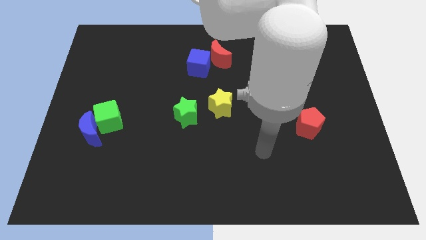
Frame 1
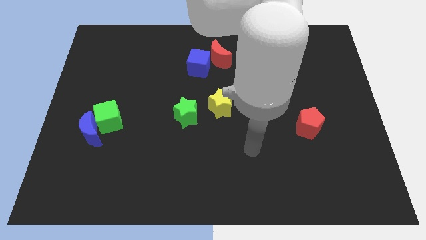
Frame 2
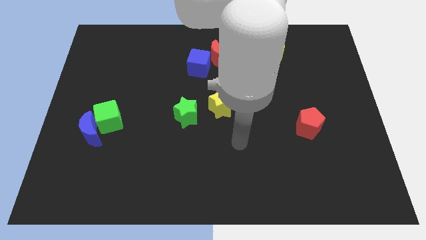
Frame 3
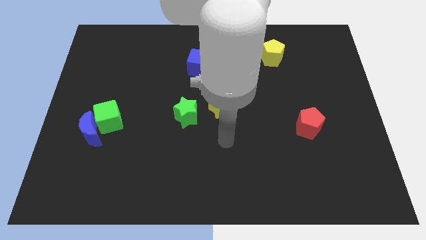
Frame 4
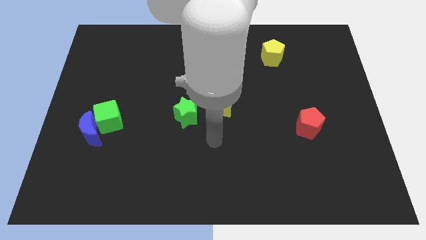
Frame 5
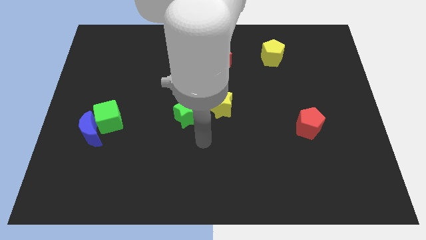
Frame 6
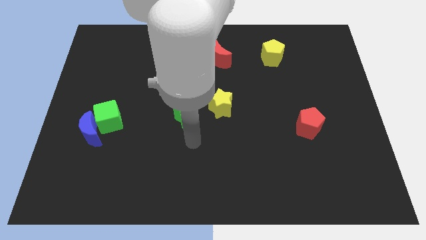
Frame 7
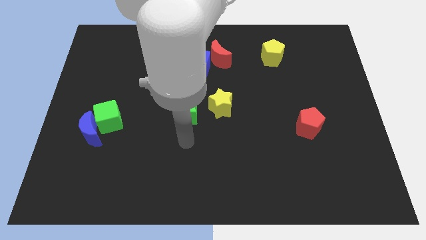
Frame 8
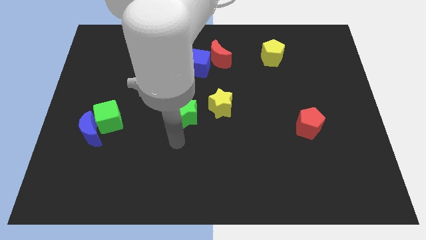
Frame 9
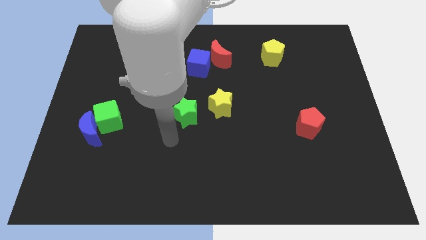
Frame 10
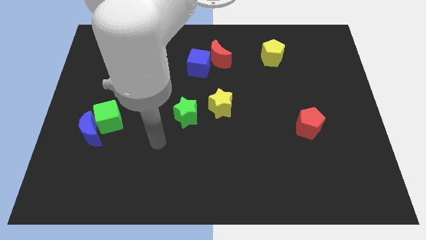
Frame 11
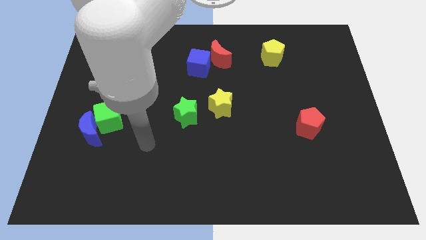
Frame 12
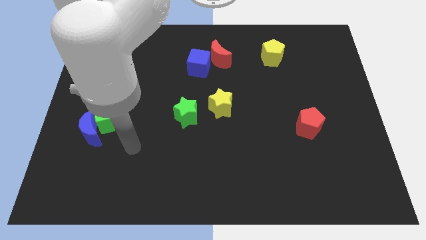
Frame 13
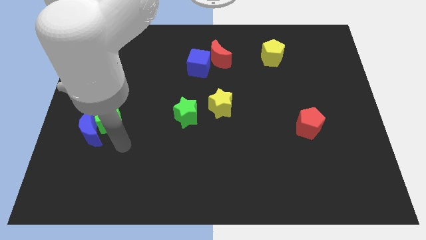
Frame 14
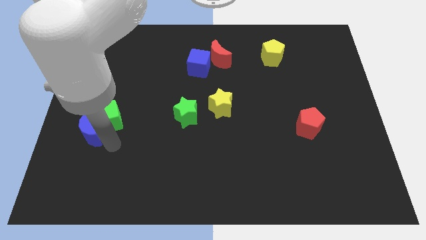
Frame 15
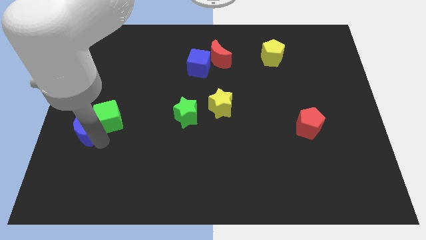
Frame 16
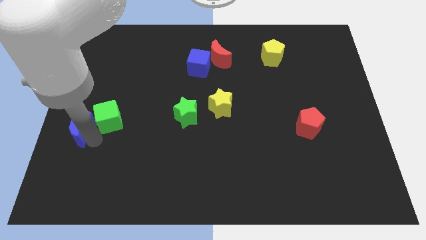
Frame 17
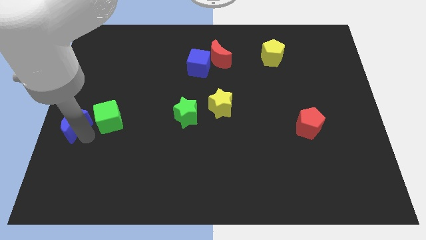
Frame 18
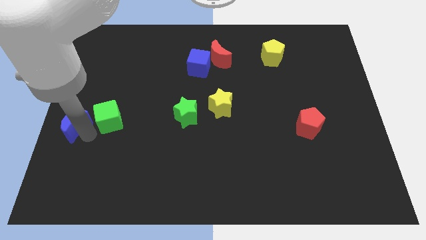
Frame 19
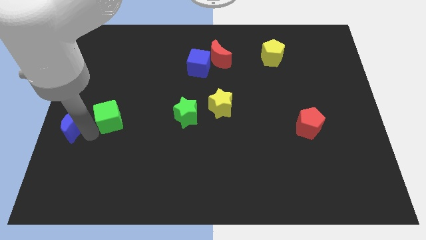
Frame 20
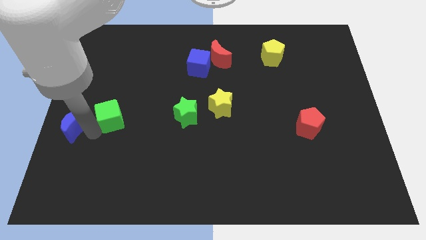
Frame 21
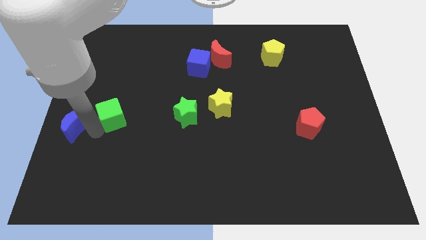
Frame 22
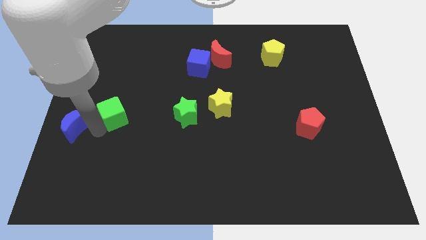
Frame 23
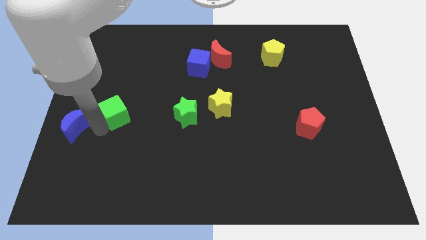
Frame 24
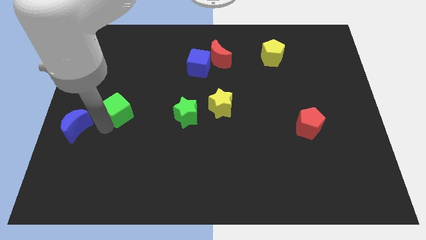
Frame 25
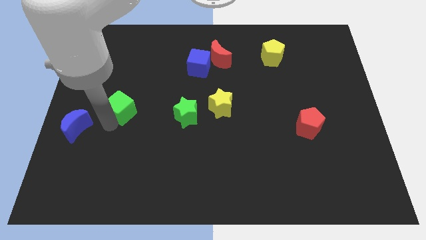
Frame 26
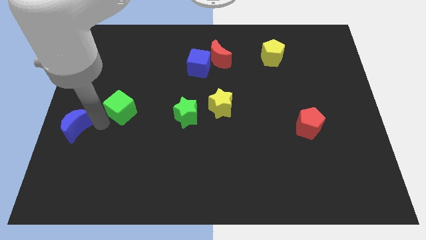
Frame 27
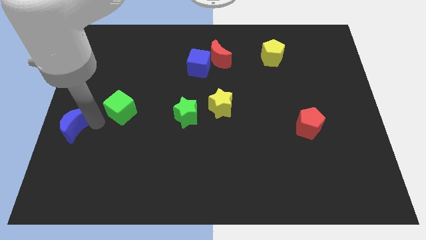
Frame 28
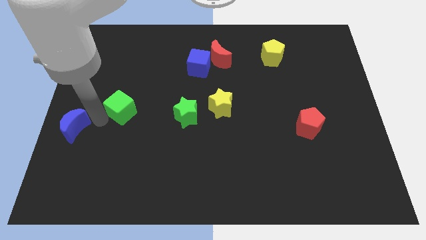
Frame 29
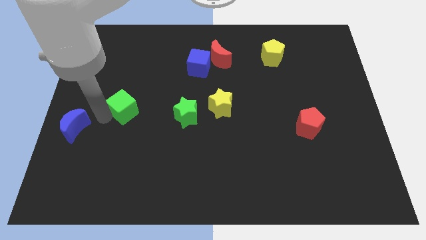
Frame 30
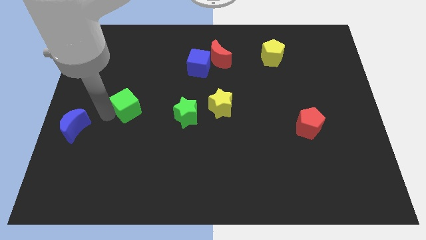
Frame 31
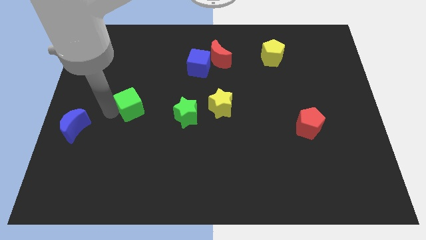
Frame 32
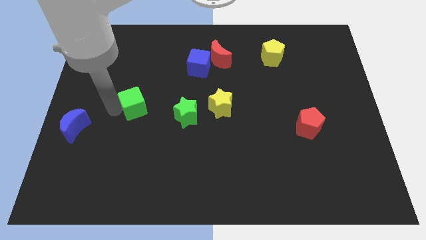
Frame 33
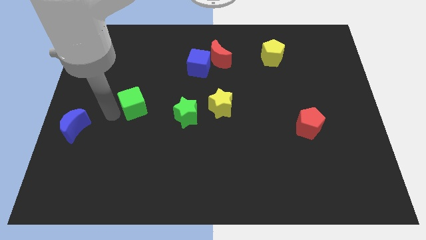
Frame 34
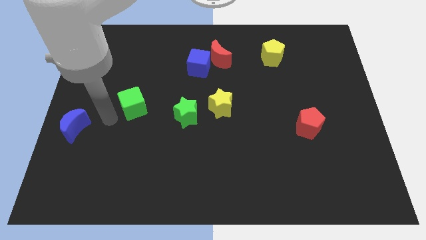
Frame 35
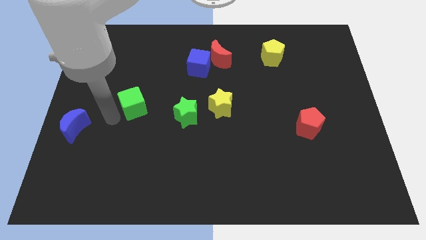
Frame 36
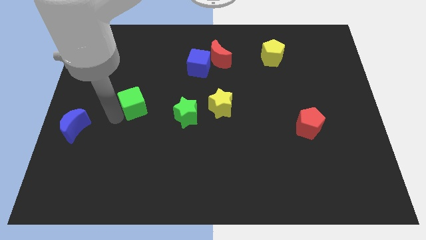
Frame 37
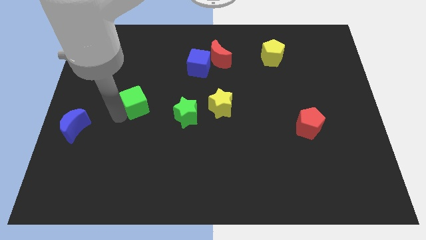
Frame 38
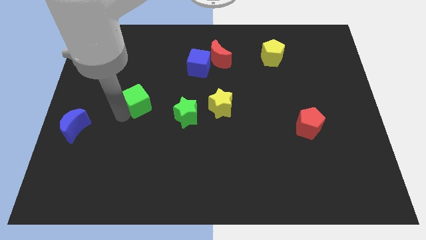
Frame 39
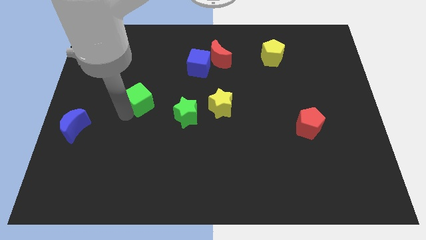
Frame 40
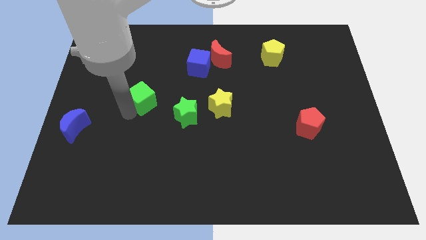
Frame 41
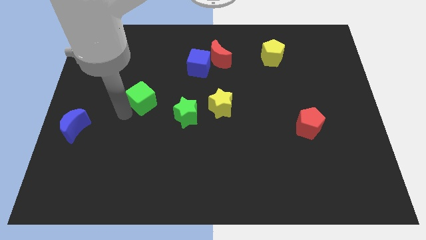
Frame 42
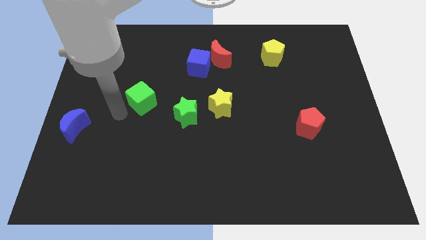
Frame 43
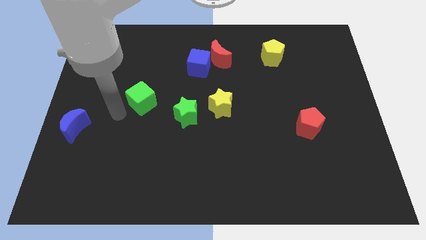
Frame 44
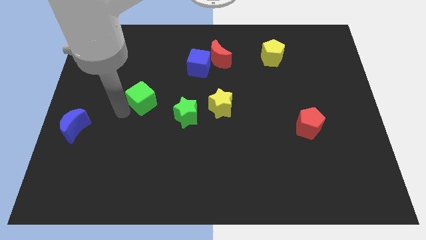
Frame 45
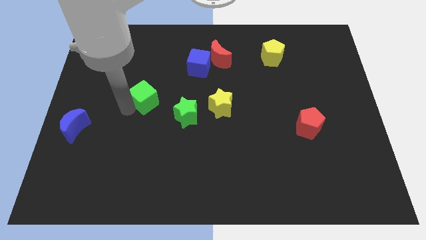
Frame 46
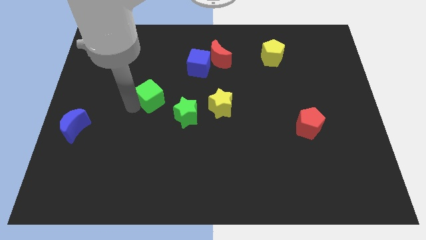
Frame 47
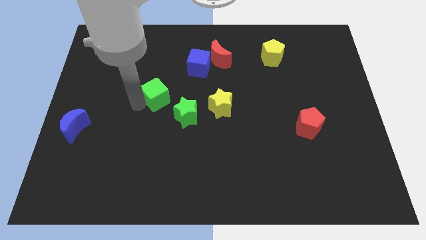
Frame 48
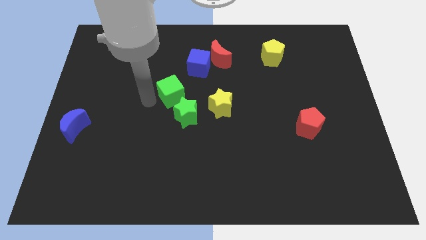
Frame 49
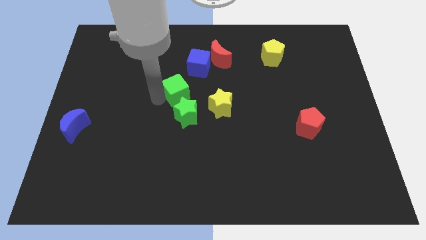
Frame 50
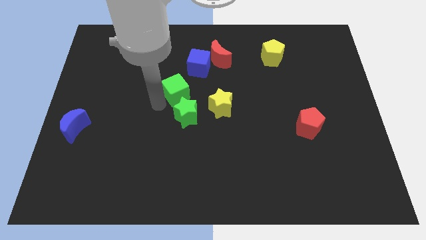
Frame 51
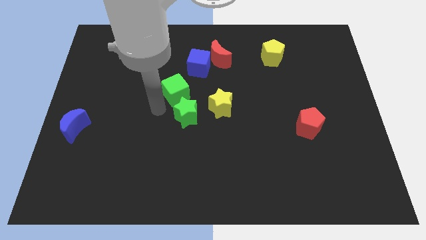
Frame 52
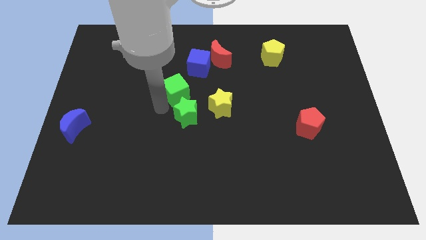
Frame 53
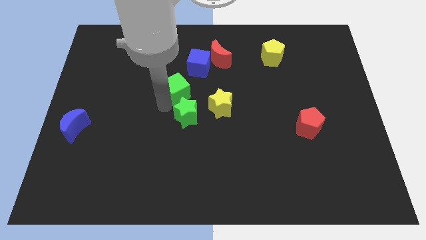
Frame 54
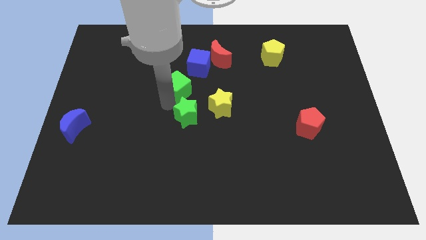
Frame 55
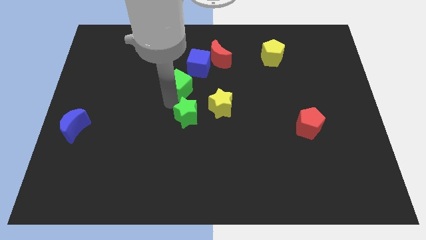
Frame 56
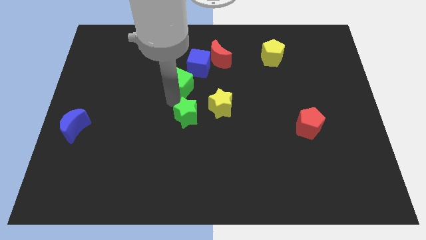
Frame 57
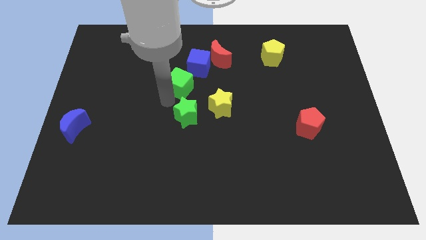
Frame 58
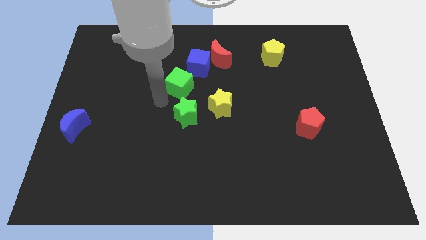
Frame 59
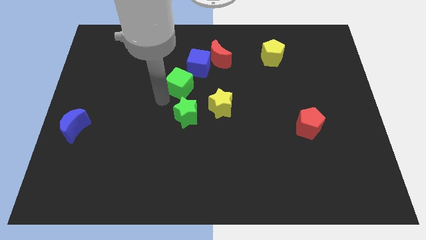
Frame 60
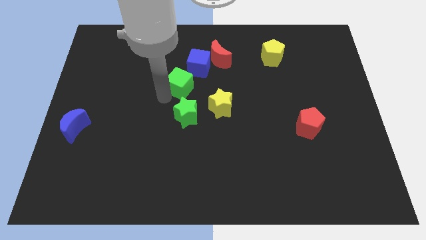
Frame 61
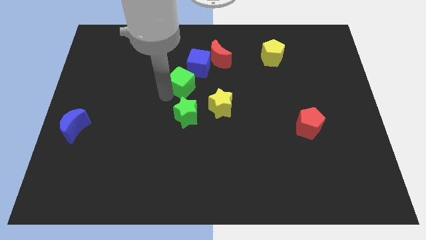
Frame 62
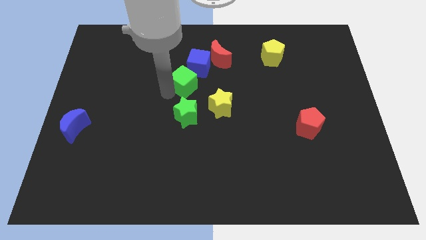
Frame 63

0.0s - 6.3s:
slide the green cube to the bottom left side of the red moon

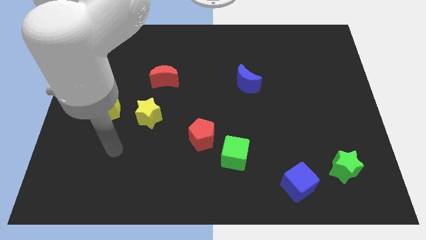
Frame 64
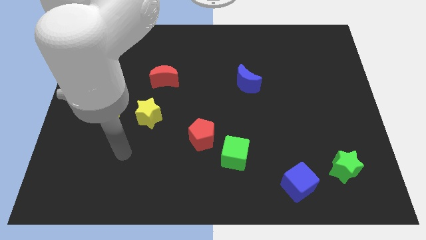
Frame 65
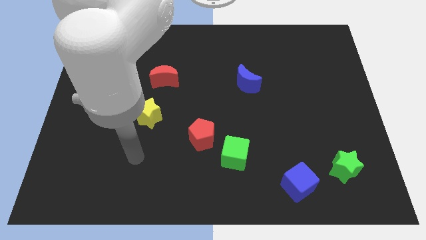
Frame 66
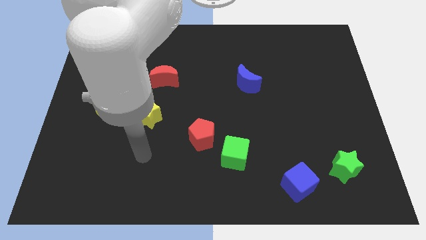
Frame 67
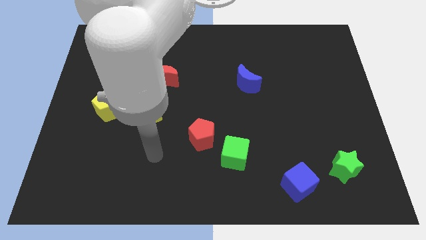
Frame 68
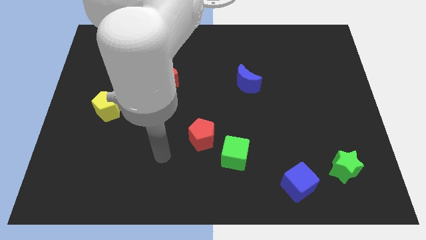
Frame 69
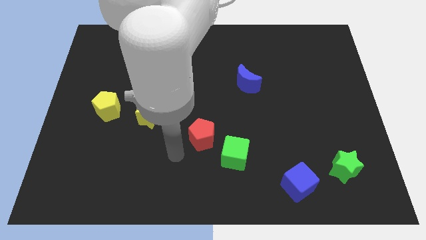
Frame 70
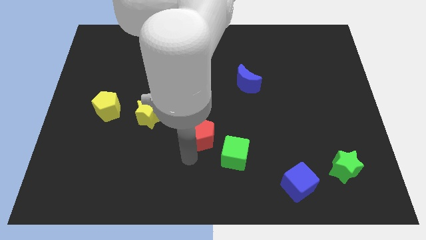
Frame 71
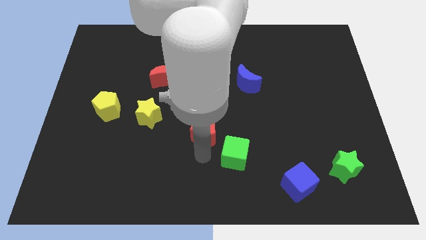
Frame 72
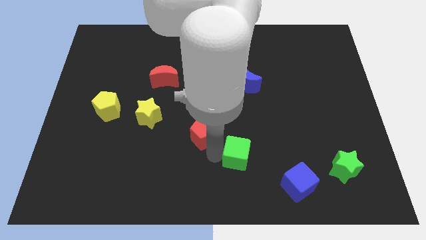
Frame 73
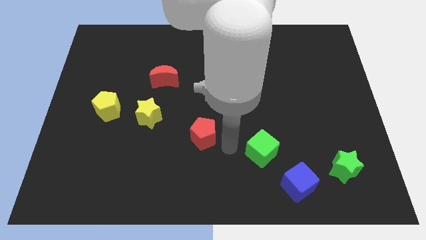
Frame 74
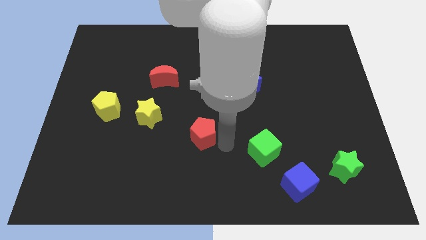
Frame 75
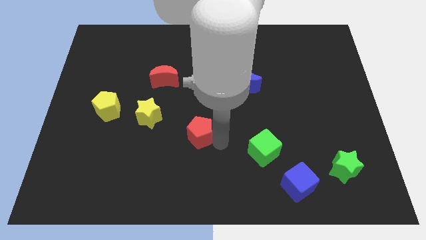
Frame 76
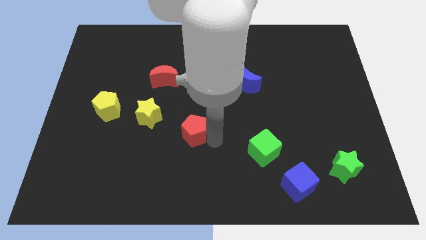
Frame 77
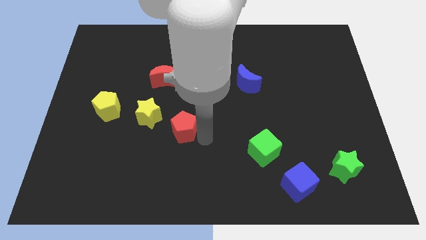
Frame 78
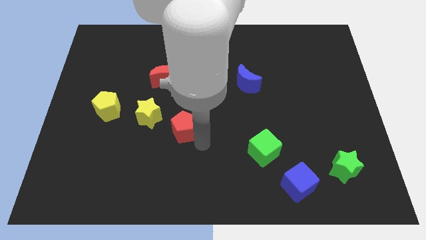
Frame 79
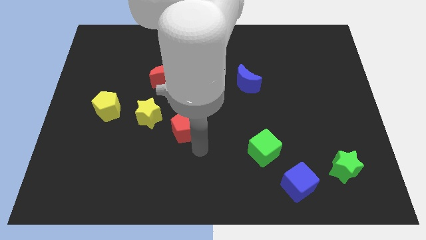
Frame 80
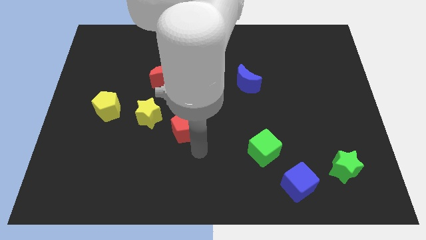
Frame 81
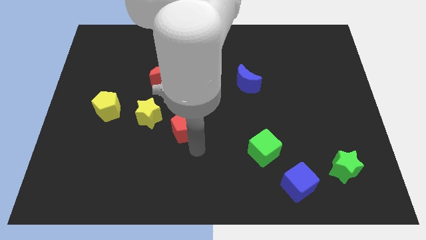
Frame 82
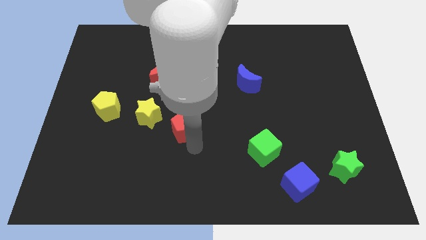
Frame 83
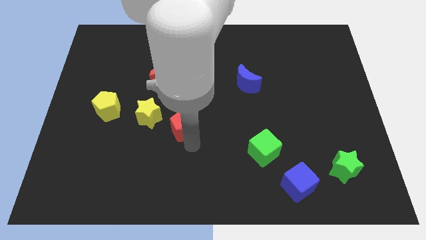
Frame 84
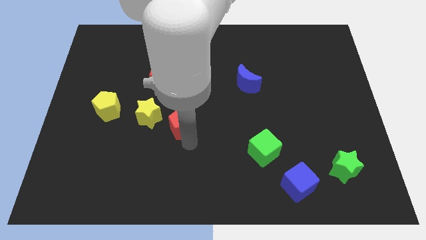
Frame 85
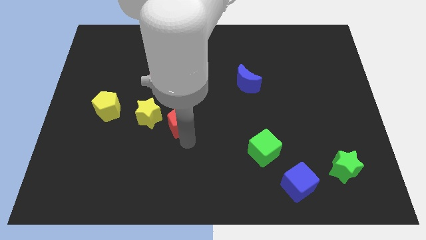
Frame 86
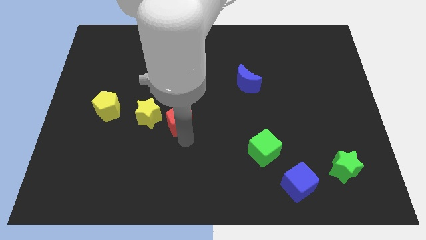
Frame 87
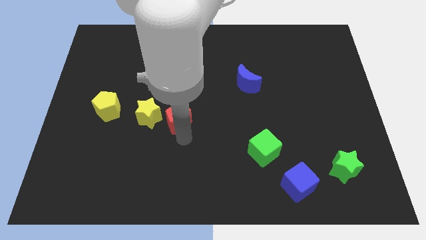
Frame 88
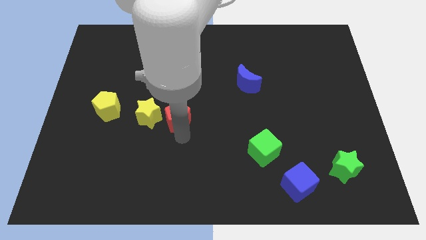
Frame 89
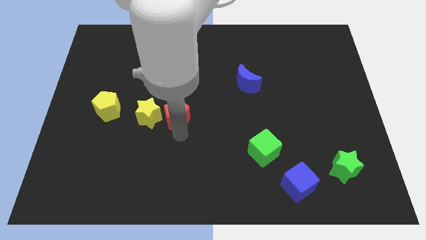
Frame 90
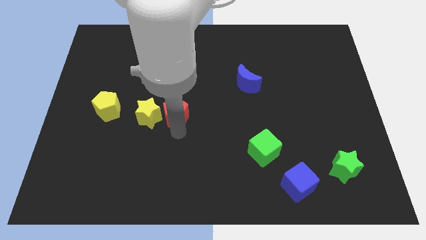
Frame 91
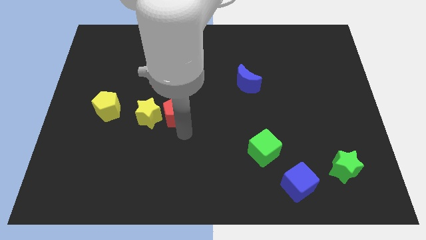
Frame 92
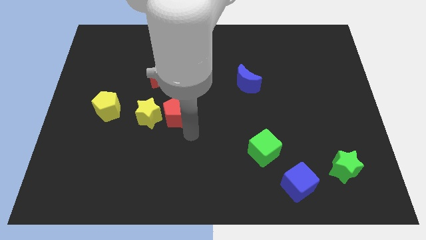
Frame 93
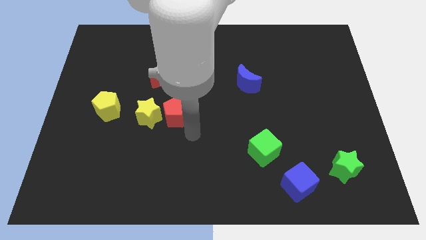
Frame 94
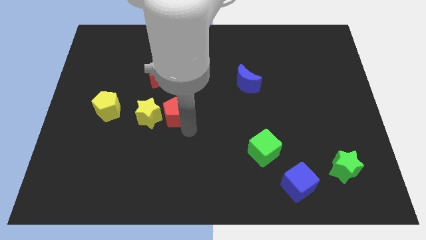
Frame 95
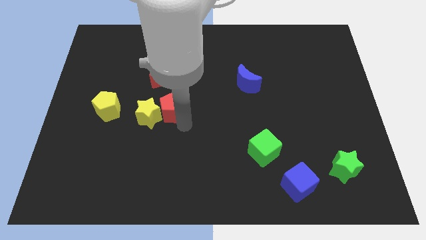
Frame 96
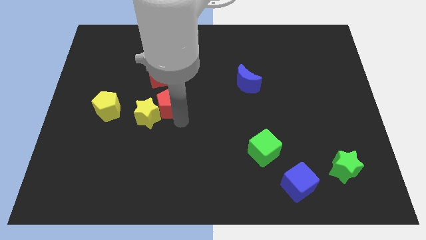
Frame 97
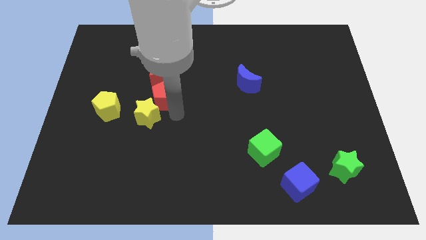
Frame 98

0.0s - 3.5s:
put the red pentagon above the yellow star
